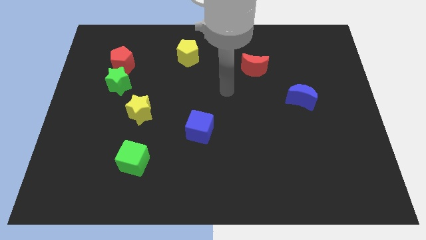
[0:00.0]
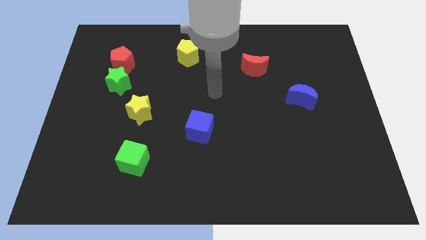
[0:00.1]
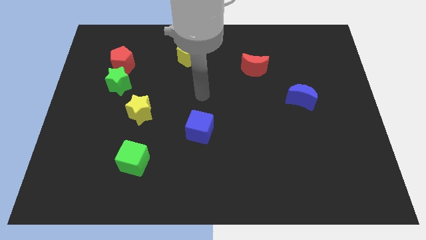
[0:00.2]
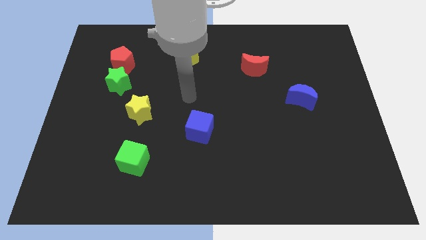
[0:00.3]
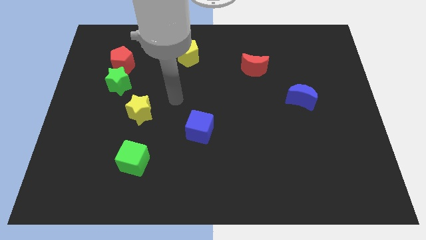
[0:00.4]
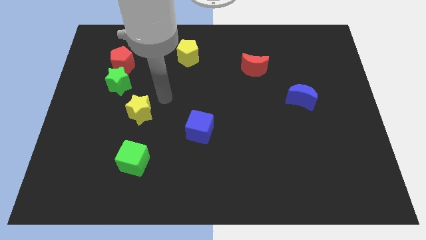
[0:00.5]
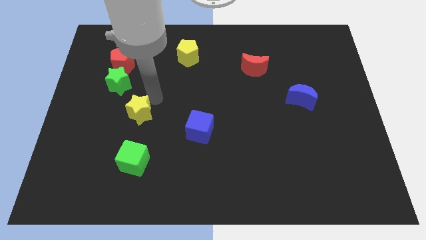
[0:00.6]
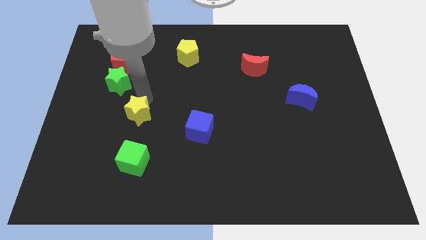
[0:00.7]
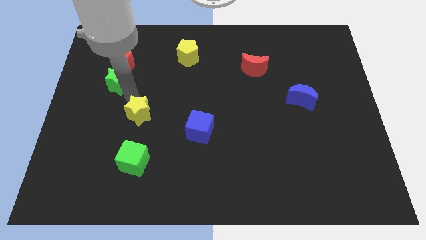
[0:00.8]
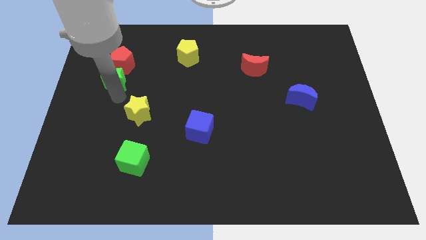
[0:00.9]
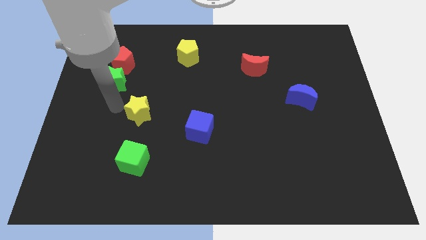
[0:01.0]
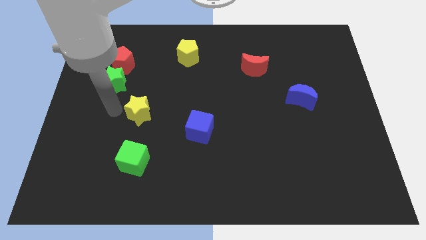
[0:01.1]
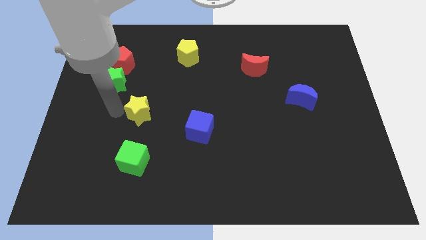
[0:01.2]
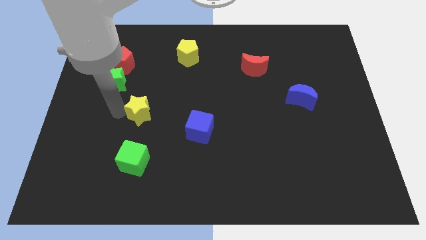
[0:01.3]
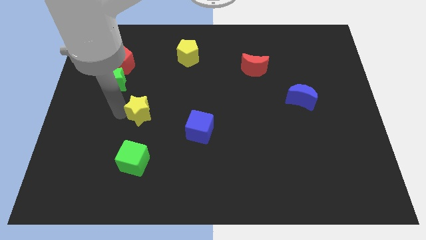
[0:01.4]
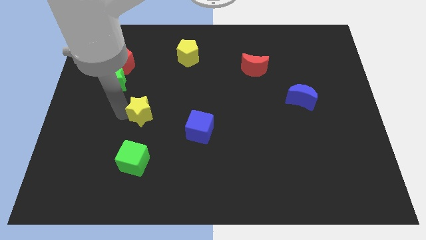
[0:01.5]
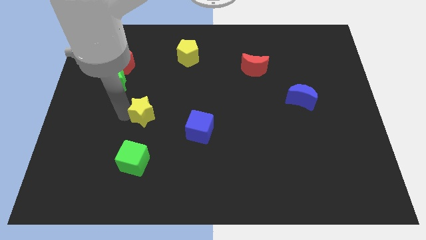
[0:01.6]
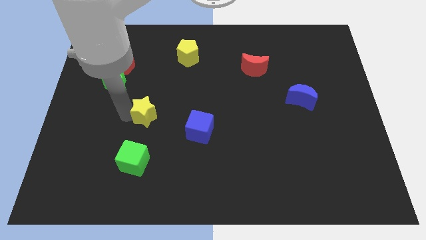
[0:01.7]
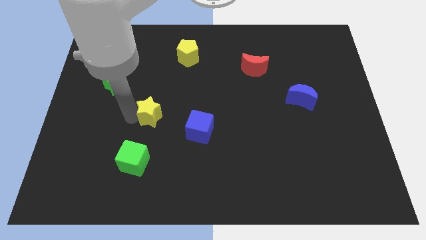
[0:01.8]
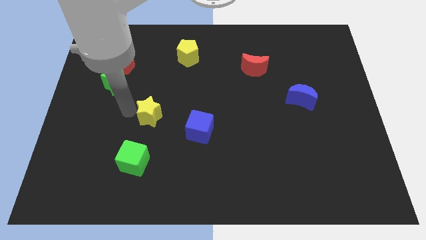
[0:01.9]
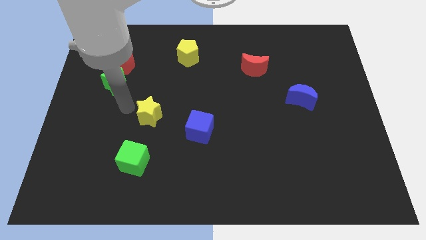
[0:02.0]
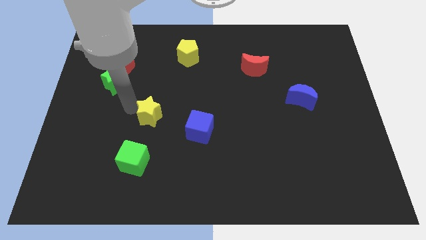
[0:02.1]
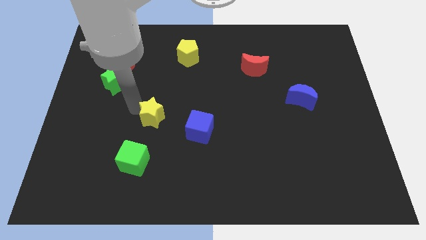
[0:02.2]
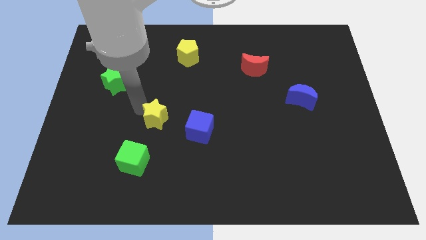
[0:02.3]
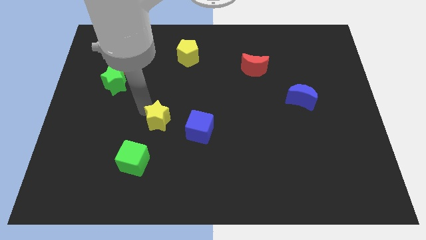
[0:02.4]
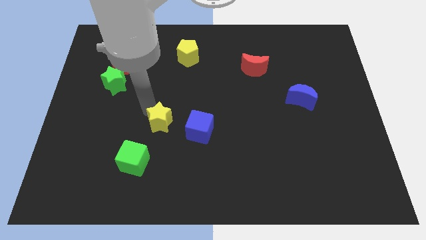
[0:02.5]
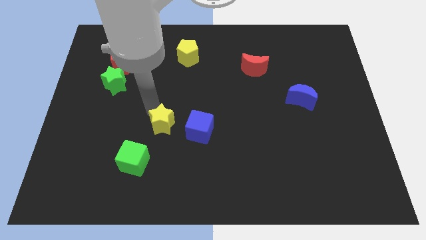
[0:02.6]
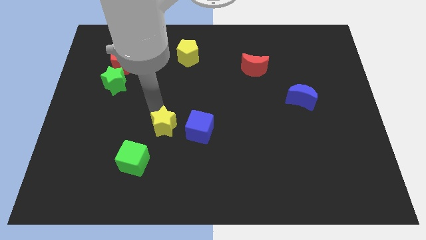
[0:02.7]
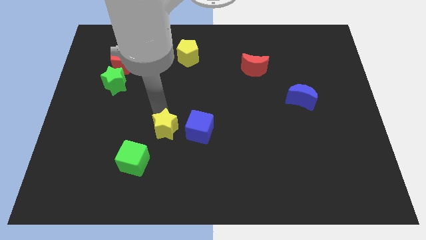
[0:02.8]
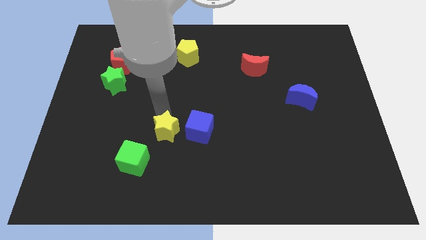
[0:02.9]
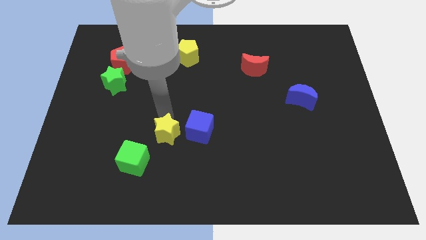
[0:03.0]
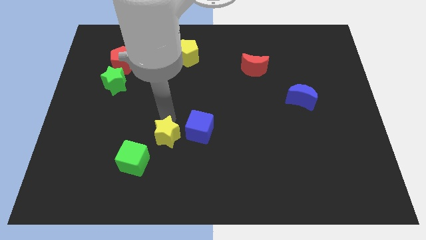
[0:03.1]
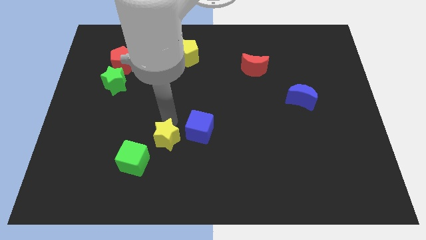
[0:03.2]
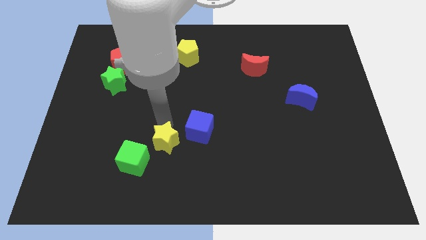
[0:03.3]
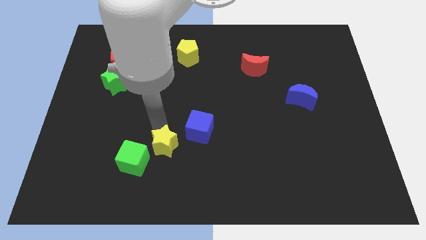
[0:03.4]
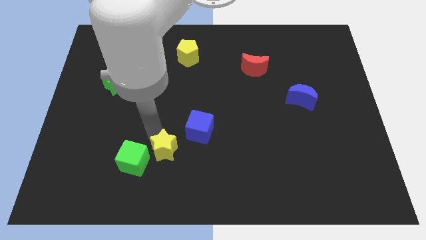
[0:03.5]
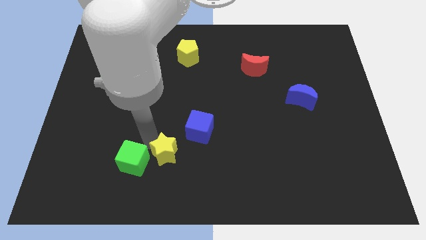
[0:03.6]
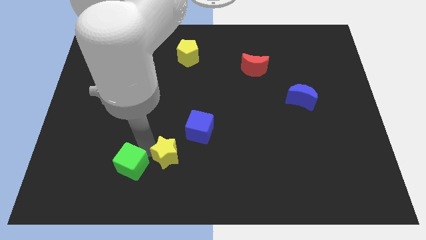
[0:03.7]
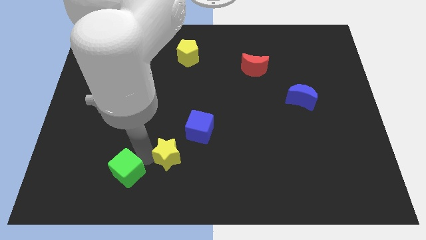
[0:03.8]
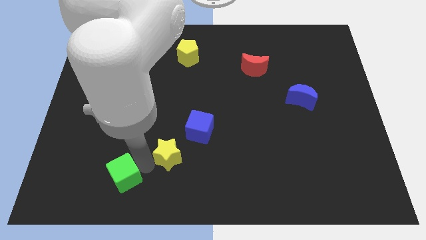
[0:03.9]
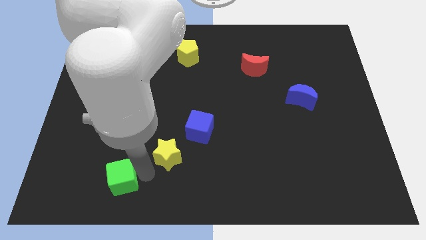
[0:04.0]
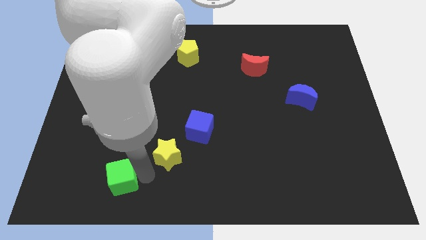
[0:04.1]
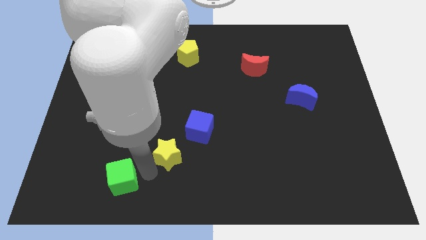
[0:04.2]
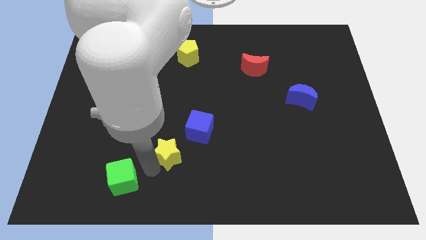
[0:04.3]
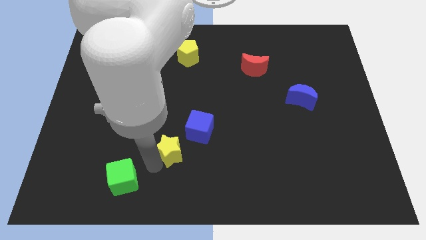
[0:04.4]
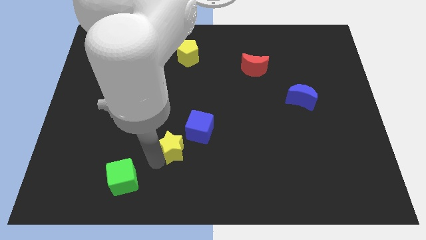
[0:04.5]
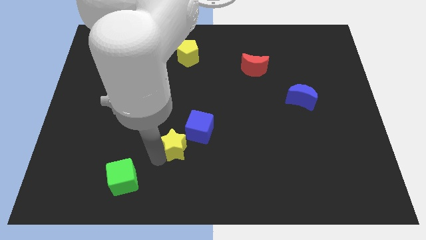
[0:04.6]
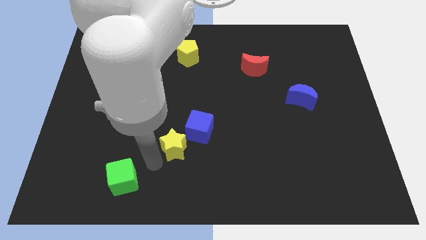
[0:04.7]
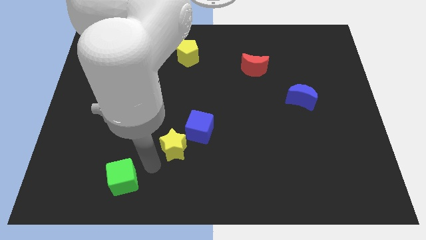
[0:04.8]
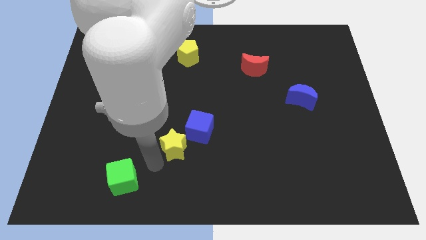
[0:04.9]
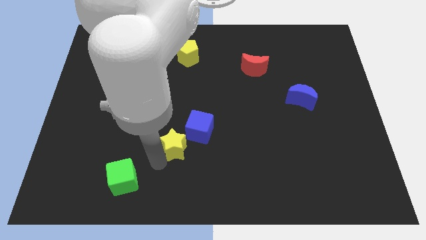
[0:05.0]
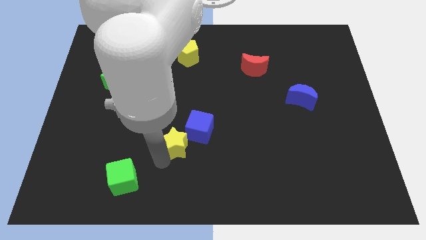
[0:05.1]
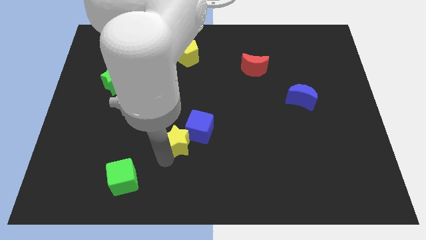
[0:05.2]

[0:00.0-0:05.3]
push the yellow star towards the blue cube

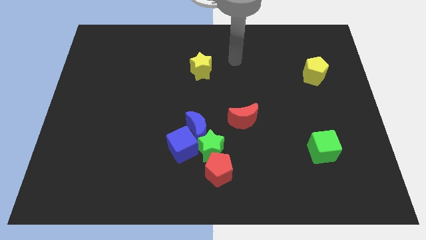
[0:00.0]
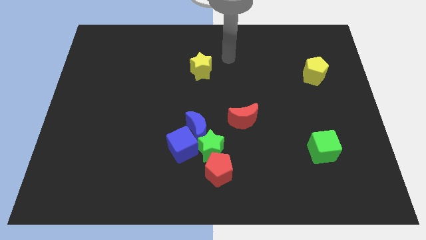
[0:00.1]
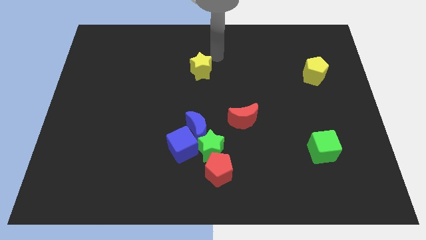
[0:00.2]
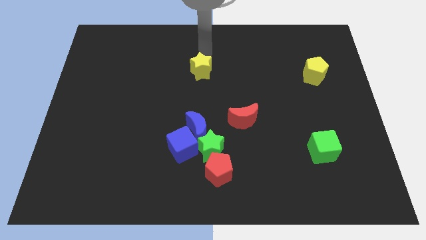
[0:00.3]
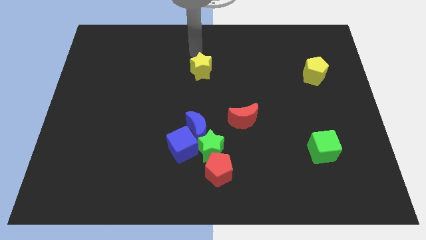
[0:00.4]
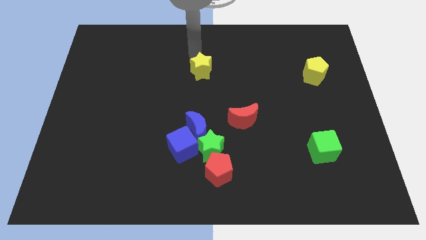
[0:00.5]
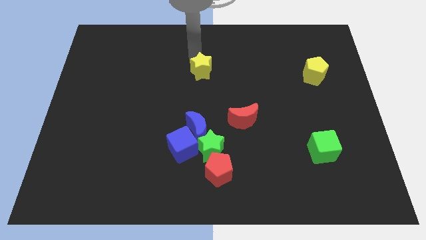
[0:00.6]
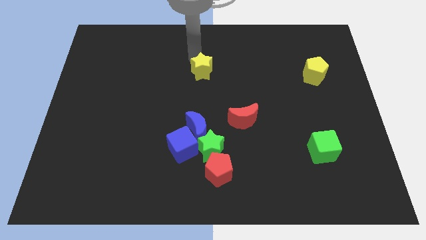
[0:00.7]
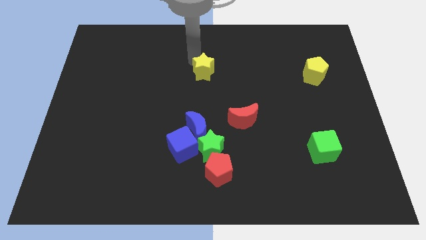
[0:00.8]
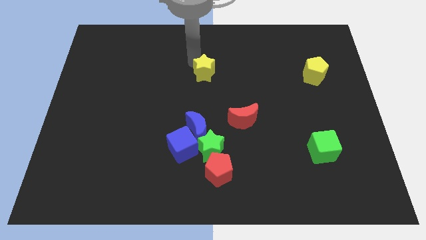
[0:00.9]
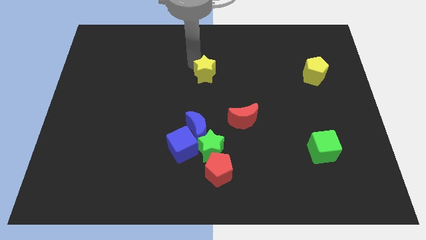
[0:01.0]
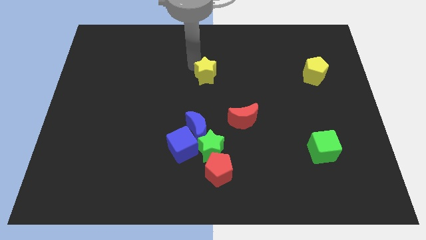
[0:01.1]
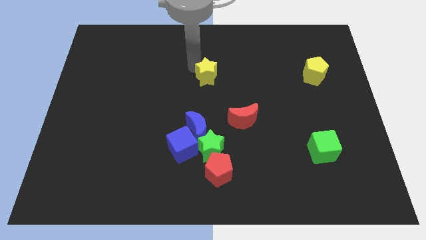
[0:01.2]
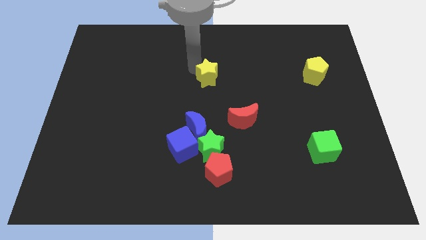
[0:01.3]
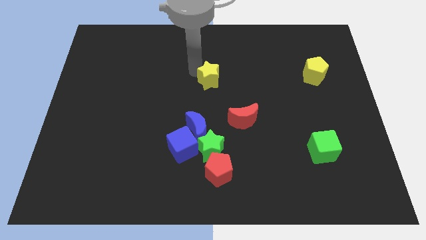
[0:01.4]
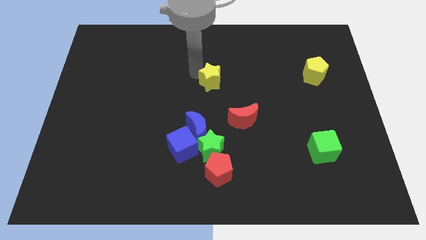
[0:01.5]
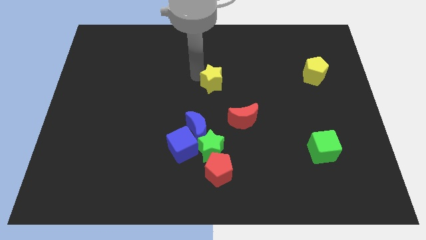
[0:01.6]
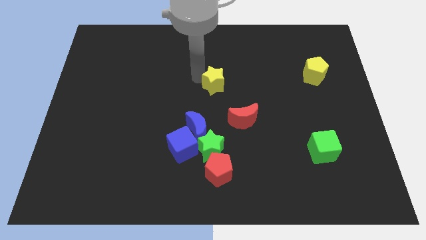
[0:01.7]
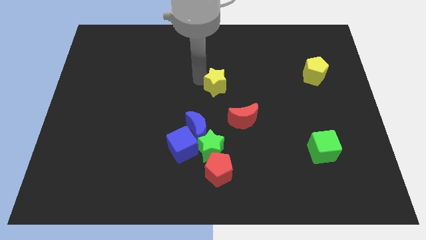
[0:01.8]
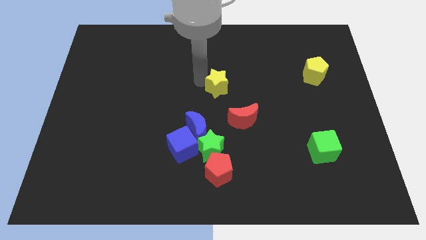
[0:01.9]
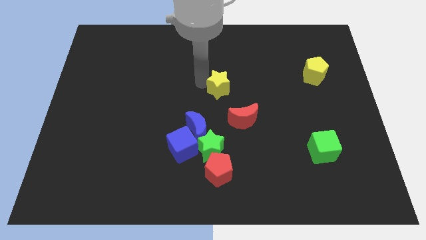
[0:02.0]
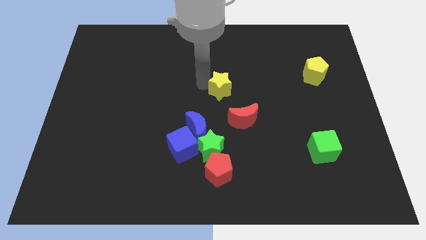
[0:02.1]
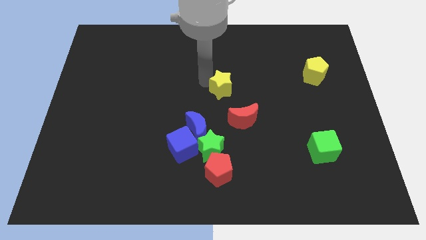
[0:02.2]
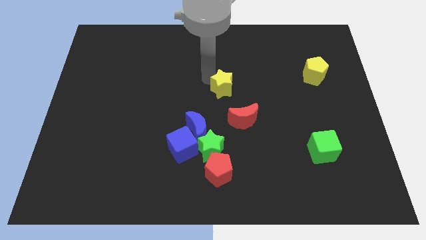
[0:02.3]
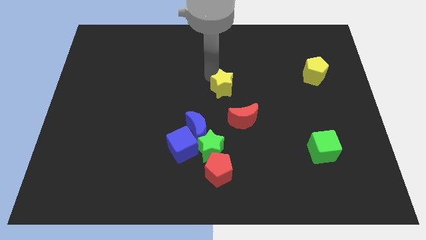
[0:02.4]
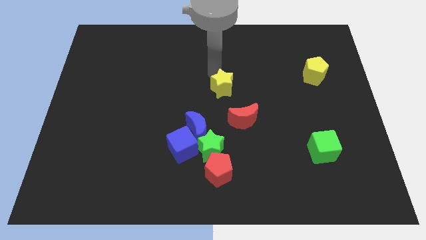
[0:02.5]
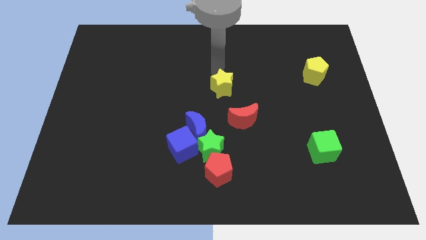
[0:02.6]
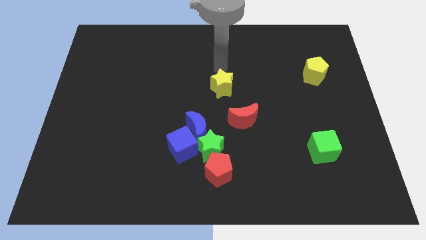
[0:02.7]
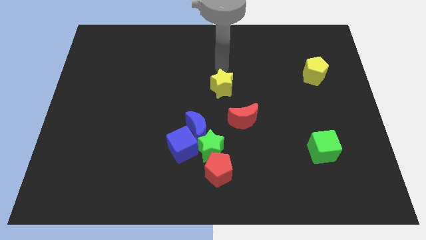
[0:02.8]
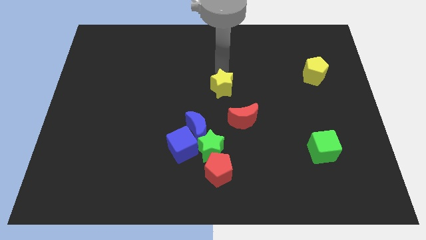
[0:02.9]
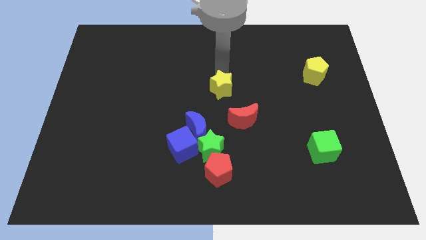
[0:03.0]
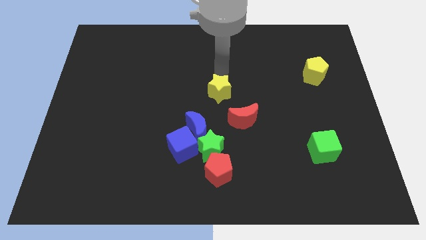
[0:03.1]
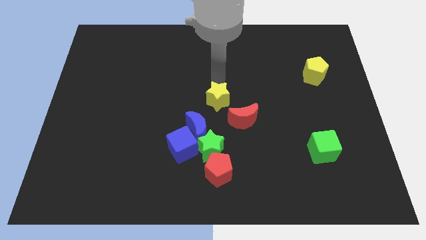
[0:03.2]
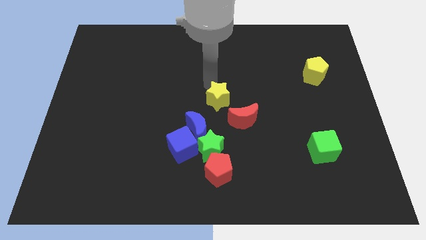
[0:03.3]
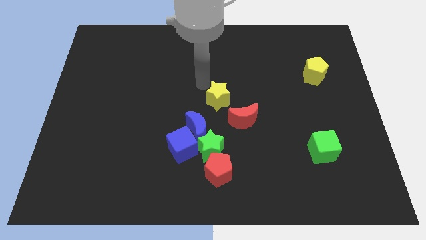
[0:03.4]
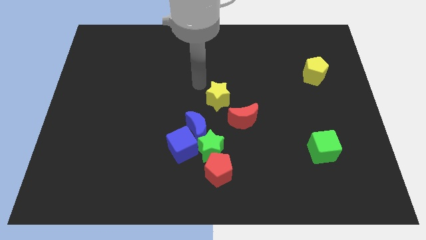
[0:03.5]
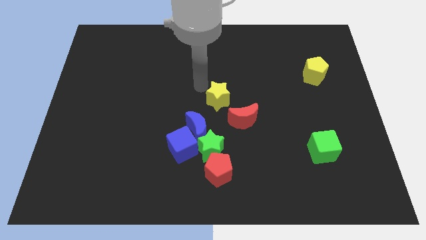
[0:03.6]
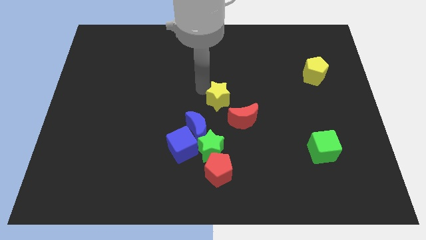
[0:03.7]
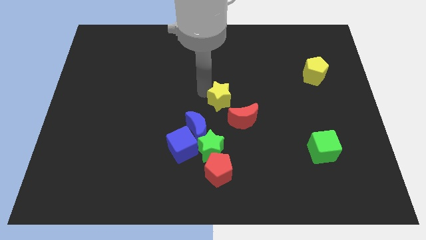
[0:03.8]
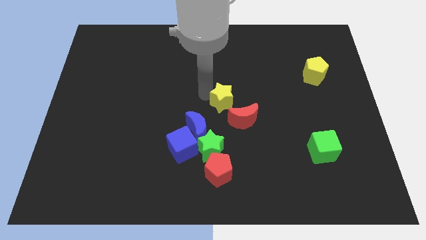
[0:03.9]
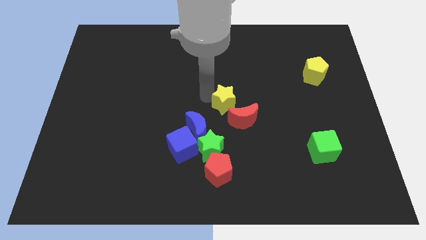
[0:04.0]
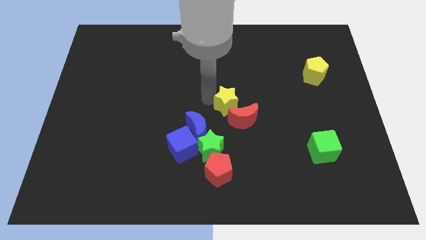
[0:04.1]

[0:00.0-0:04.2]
put the yellow star towards the red moon
